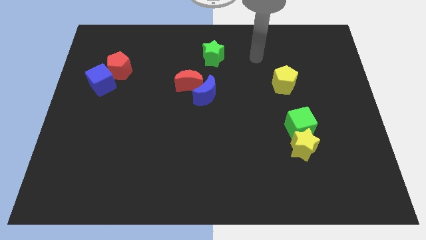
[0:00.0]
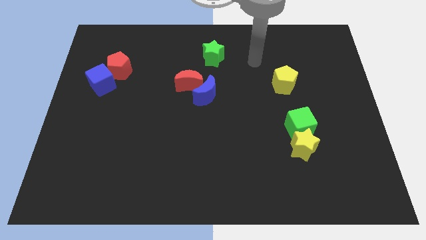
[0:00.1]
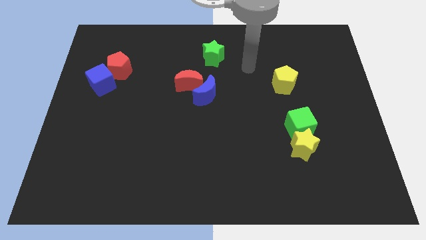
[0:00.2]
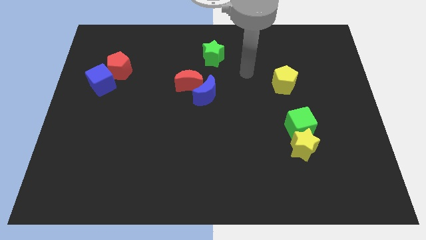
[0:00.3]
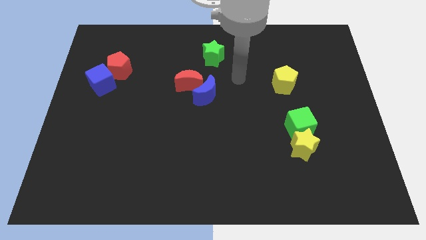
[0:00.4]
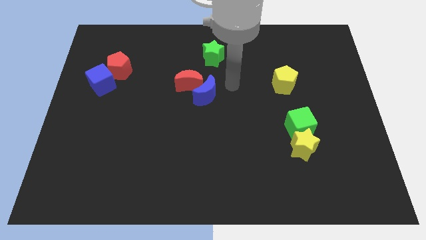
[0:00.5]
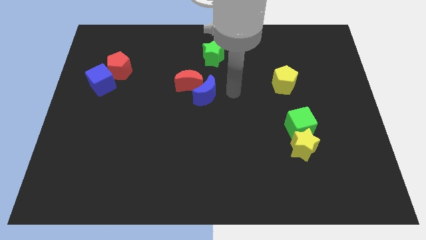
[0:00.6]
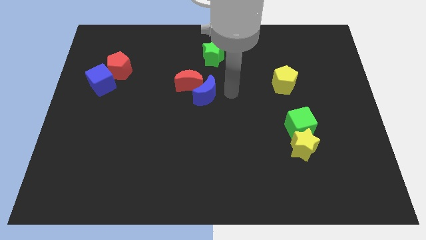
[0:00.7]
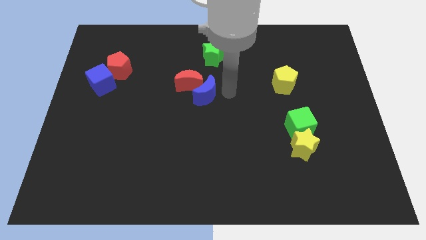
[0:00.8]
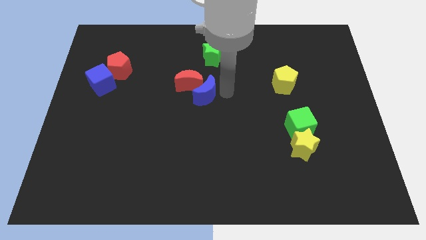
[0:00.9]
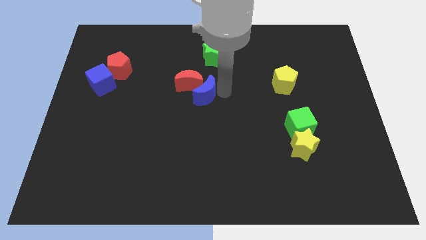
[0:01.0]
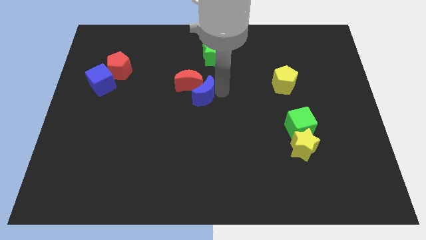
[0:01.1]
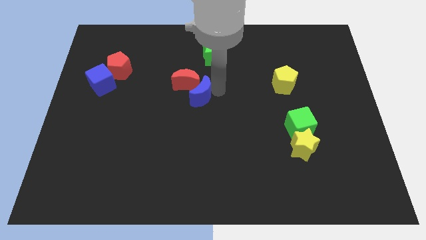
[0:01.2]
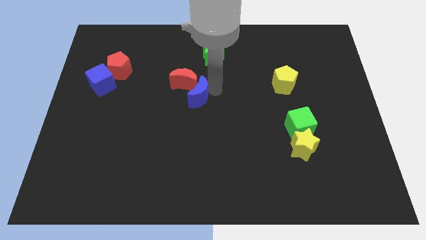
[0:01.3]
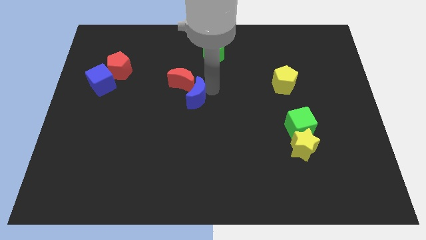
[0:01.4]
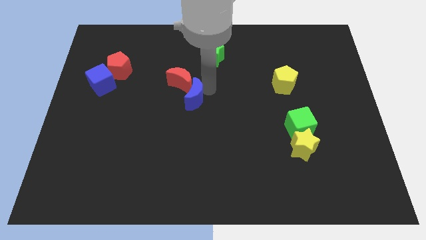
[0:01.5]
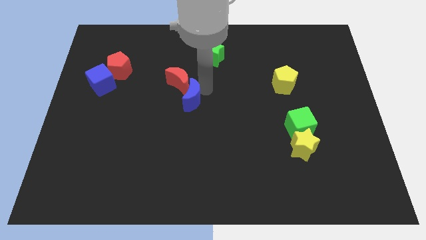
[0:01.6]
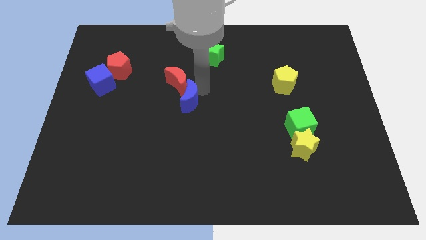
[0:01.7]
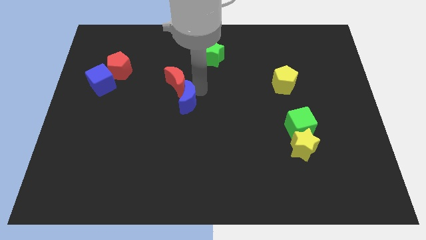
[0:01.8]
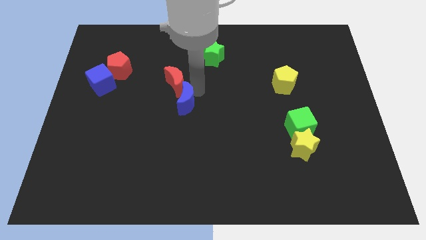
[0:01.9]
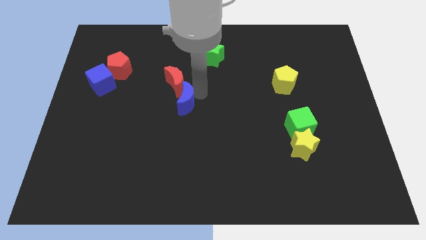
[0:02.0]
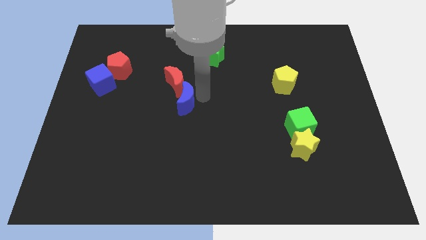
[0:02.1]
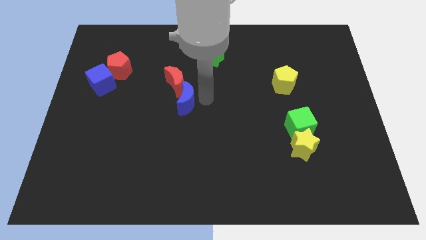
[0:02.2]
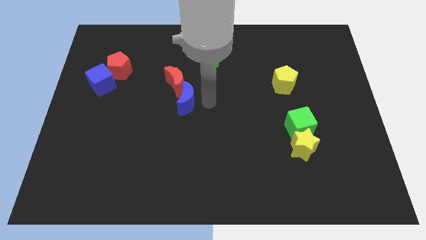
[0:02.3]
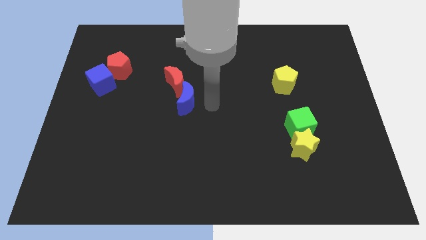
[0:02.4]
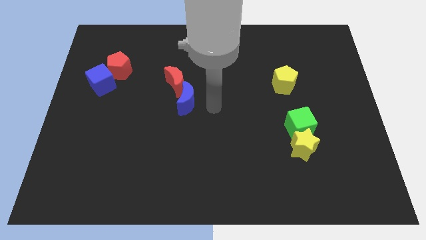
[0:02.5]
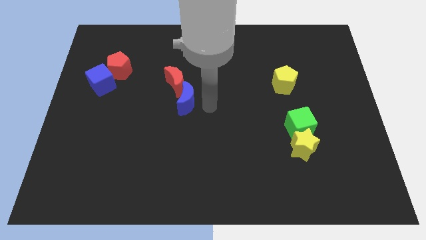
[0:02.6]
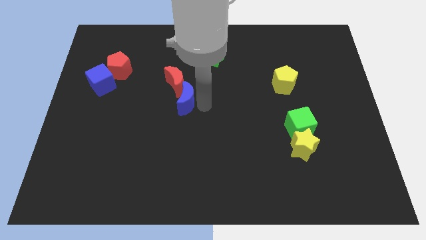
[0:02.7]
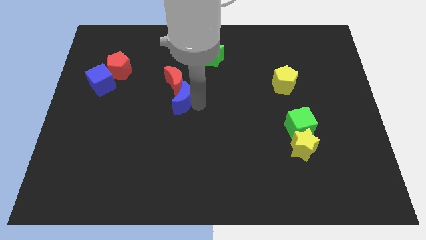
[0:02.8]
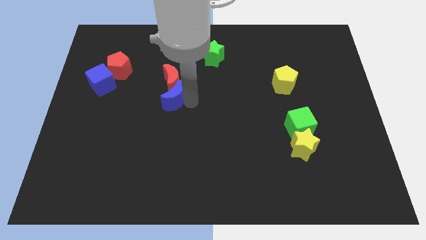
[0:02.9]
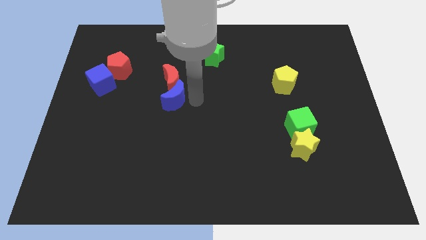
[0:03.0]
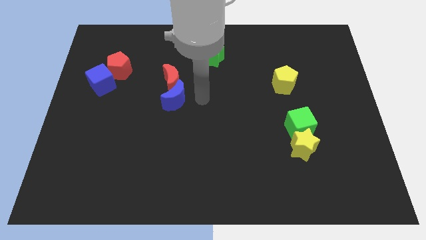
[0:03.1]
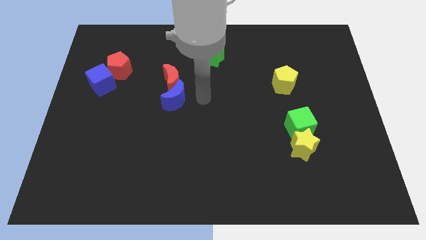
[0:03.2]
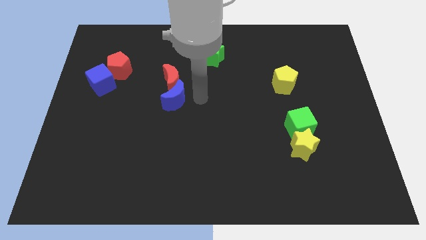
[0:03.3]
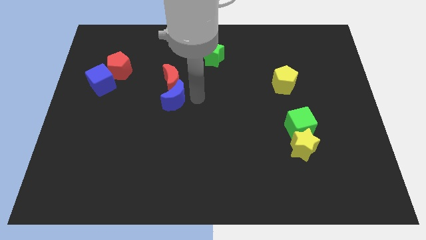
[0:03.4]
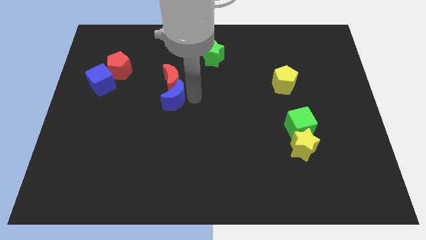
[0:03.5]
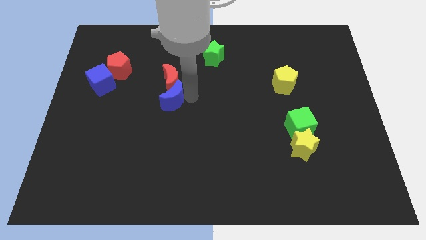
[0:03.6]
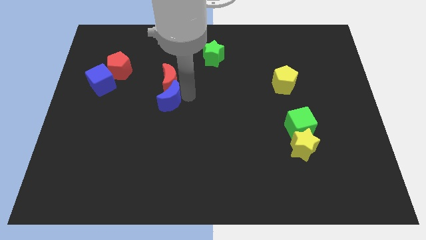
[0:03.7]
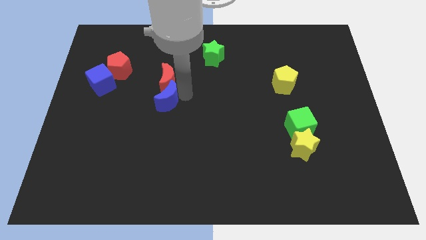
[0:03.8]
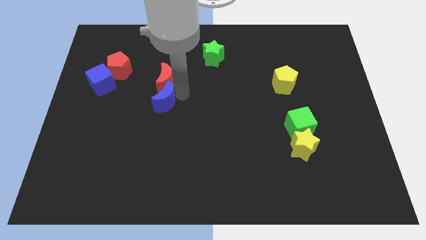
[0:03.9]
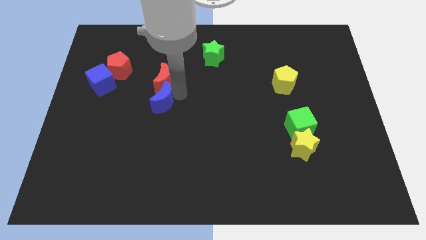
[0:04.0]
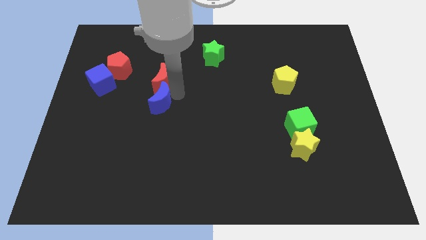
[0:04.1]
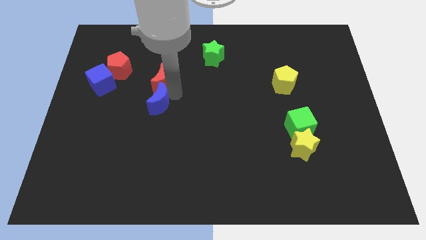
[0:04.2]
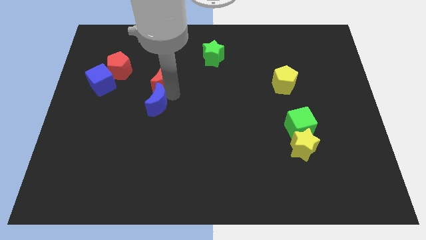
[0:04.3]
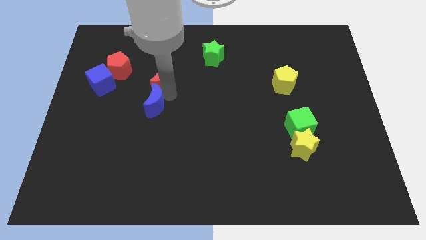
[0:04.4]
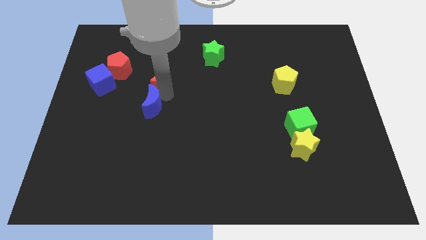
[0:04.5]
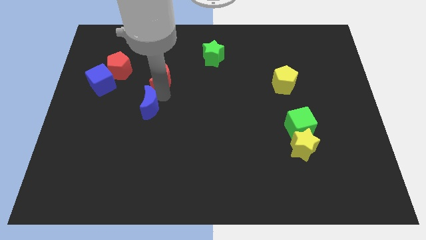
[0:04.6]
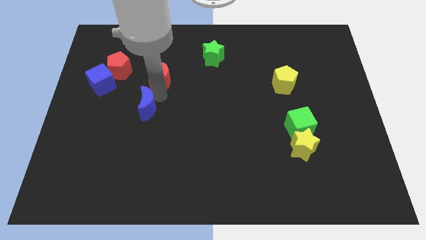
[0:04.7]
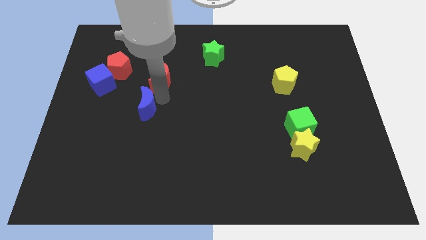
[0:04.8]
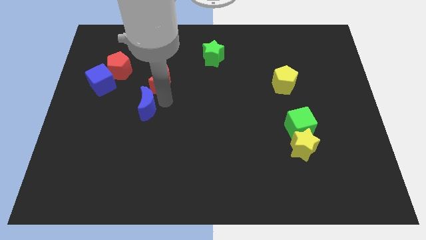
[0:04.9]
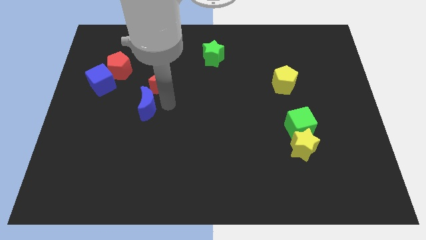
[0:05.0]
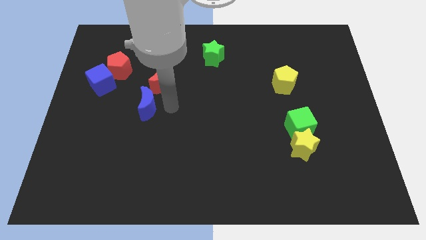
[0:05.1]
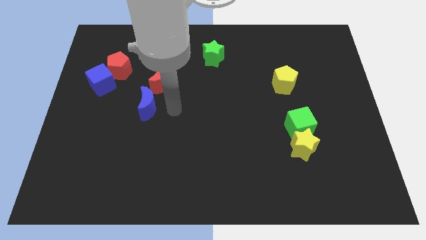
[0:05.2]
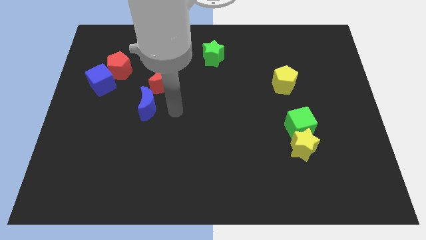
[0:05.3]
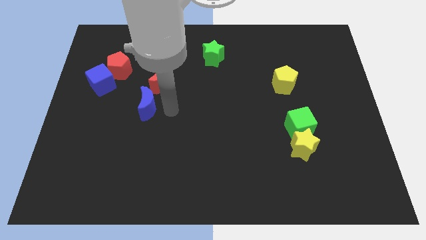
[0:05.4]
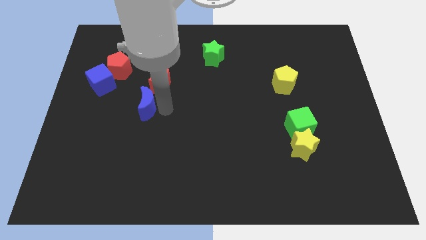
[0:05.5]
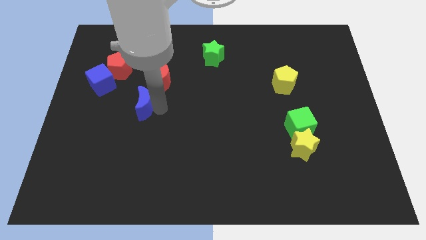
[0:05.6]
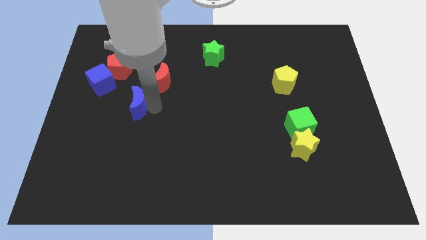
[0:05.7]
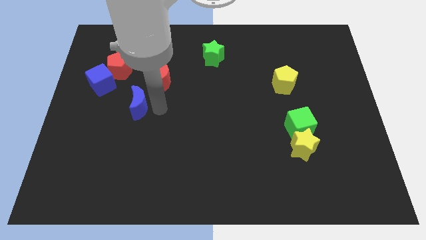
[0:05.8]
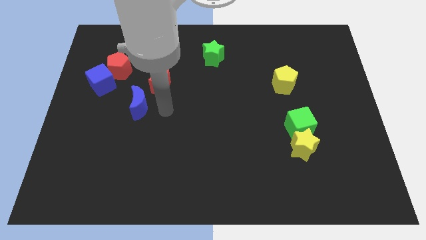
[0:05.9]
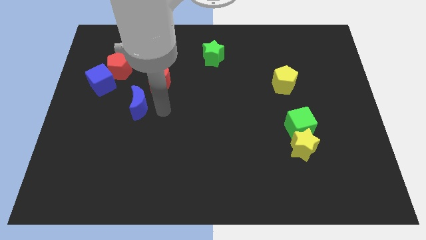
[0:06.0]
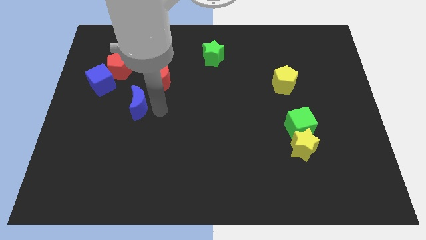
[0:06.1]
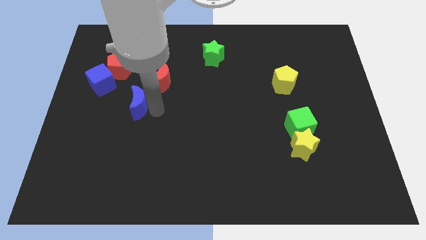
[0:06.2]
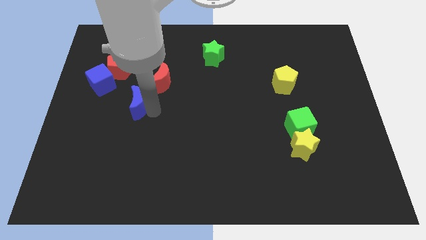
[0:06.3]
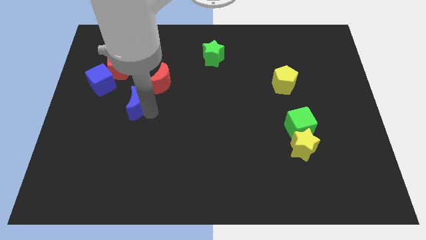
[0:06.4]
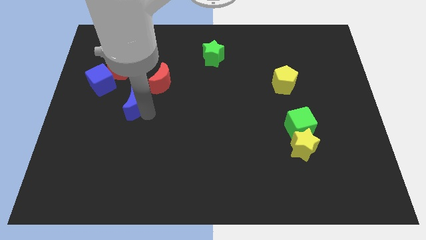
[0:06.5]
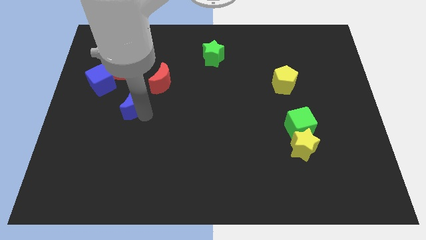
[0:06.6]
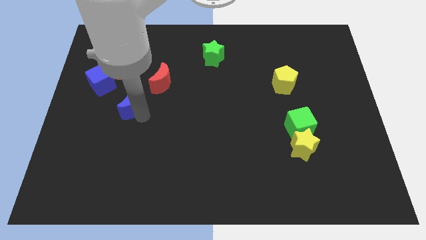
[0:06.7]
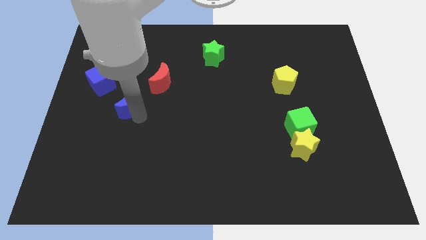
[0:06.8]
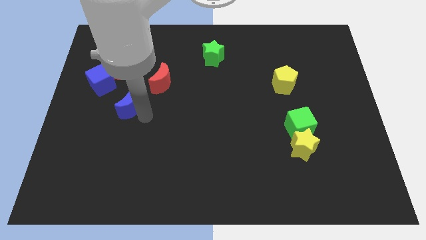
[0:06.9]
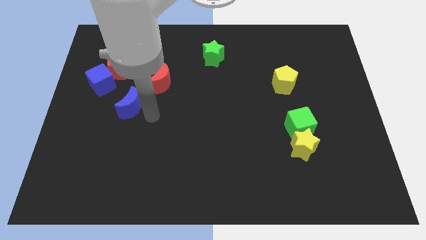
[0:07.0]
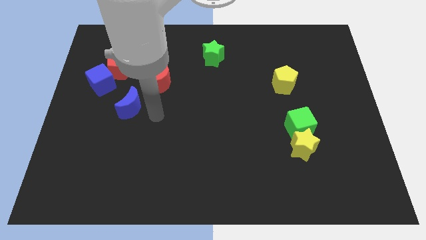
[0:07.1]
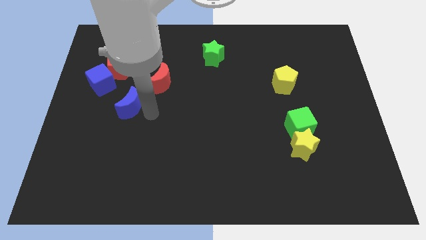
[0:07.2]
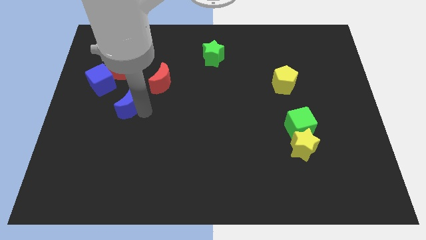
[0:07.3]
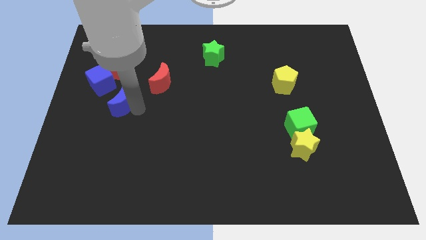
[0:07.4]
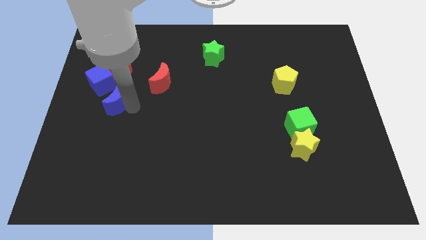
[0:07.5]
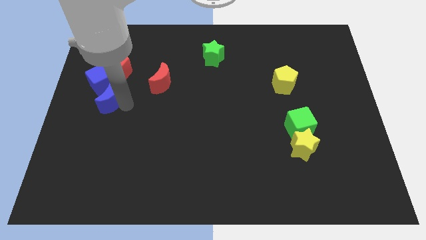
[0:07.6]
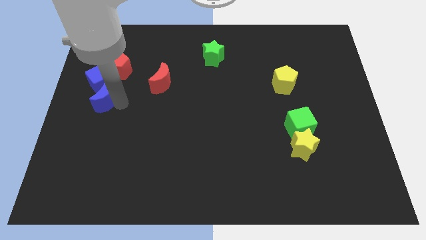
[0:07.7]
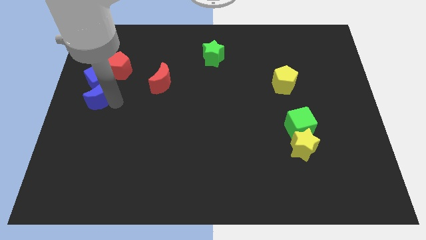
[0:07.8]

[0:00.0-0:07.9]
push the blue moon to the bottom left side of the red pentagon

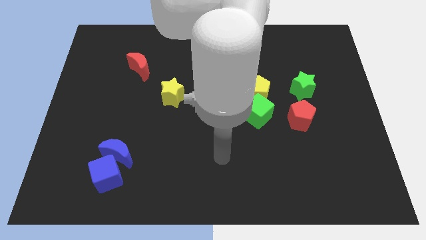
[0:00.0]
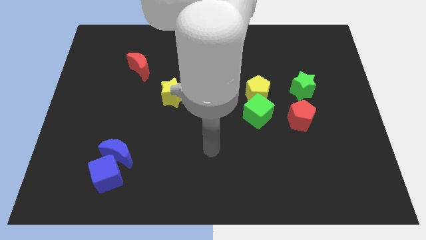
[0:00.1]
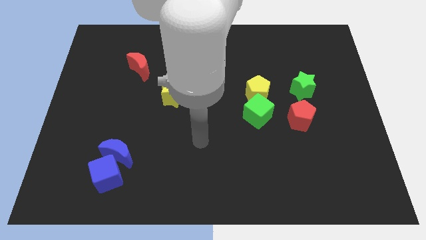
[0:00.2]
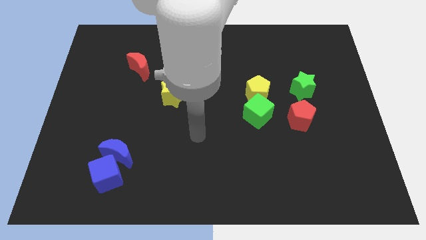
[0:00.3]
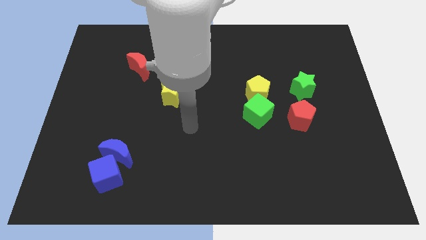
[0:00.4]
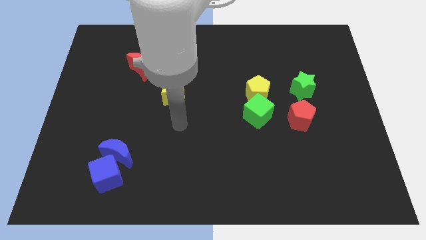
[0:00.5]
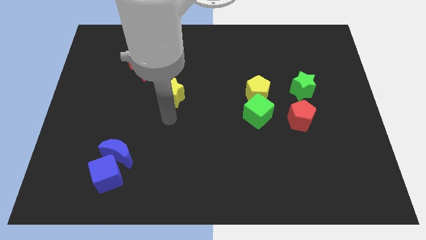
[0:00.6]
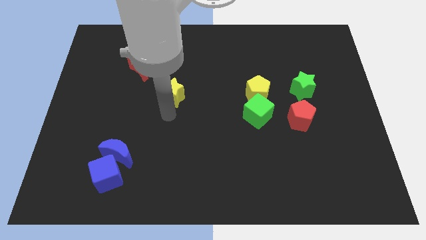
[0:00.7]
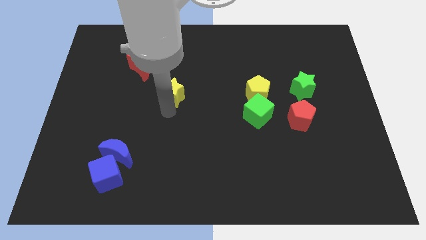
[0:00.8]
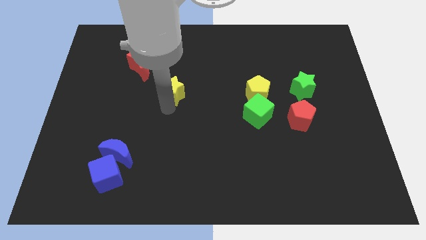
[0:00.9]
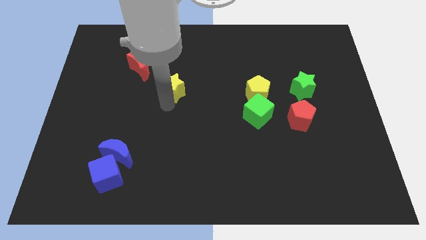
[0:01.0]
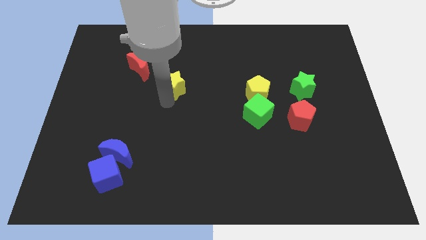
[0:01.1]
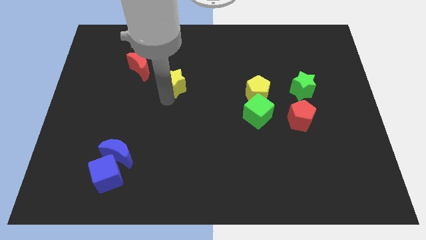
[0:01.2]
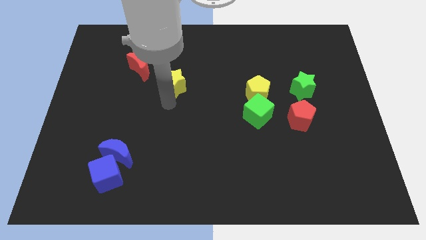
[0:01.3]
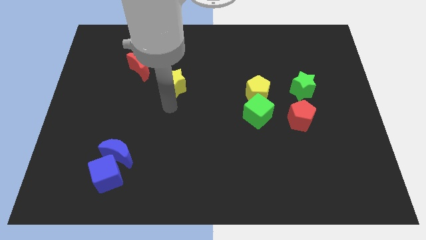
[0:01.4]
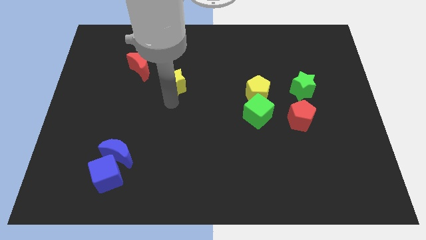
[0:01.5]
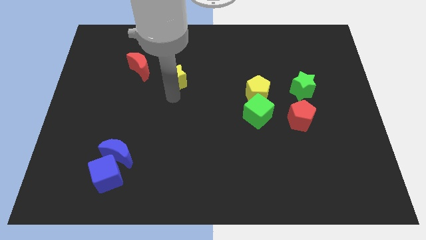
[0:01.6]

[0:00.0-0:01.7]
slide the yellow star right of the red moon
